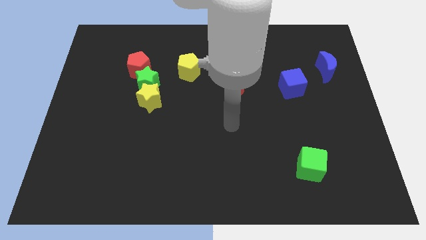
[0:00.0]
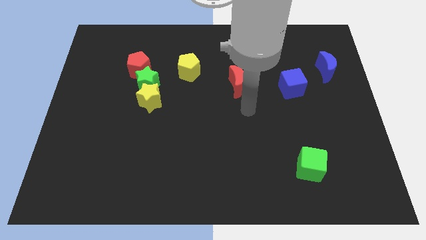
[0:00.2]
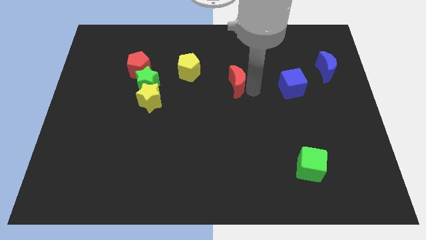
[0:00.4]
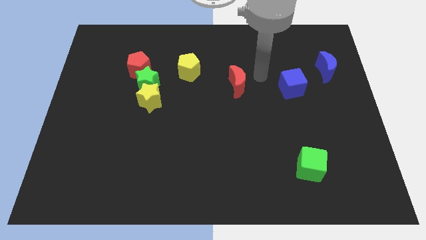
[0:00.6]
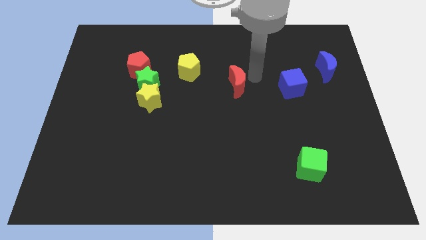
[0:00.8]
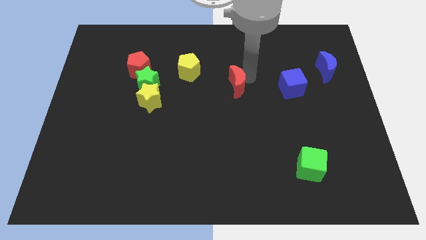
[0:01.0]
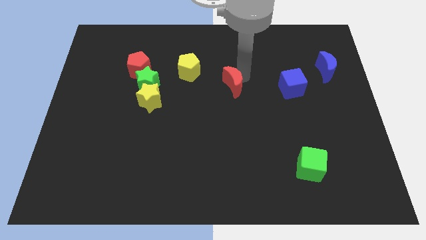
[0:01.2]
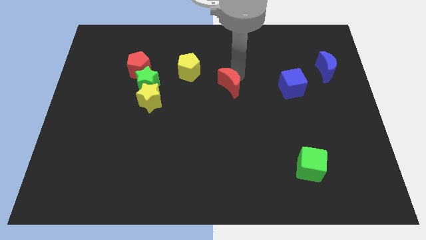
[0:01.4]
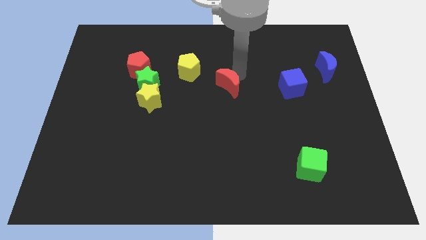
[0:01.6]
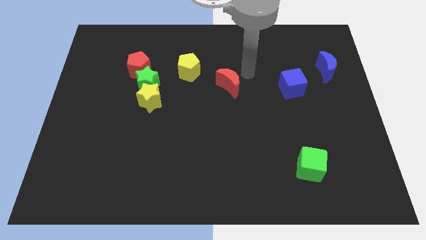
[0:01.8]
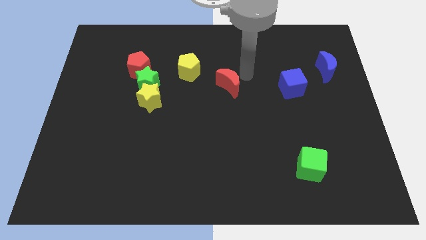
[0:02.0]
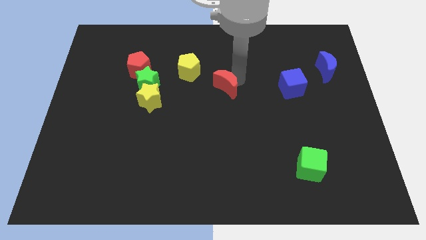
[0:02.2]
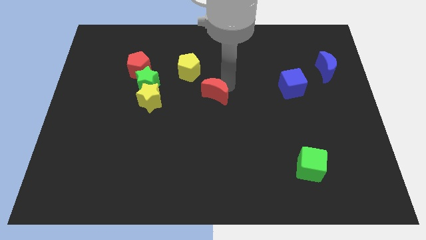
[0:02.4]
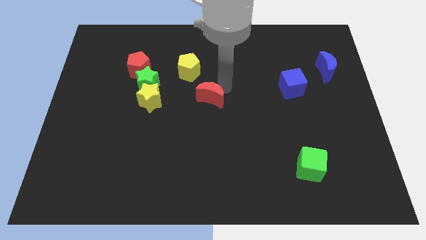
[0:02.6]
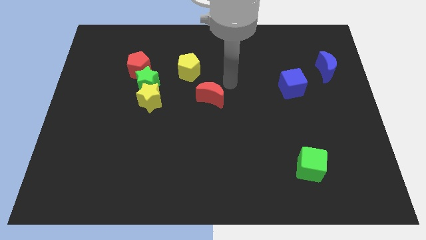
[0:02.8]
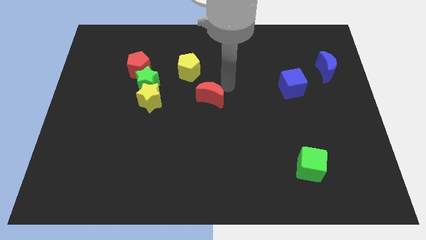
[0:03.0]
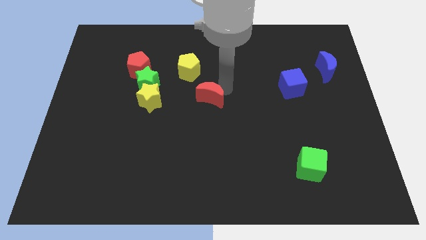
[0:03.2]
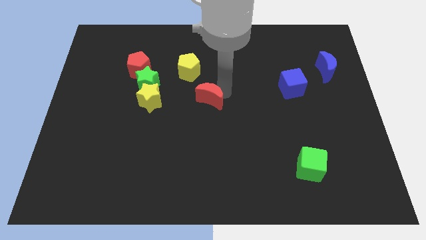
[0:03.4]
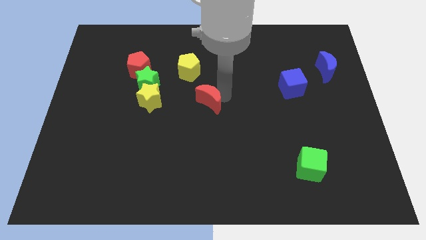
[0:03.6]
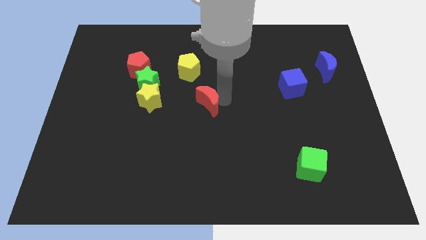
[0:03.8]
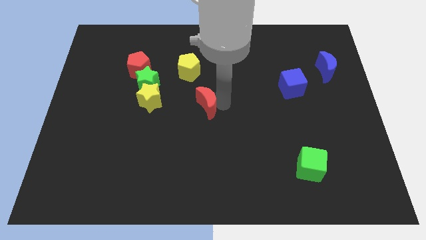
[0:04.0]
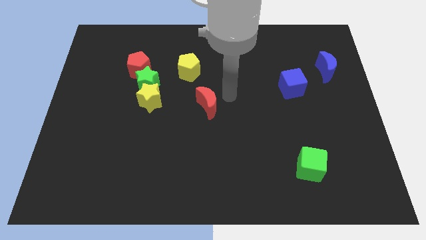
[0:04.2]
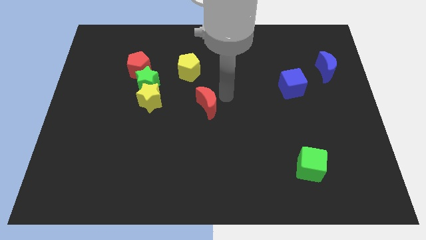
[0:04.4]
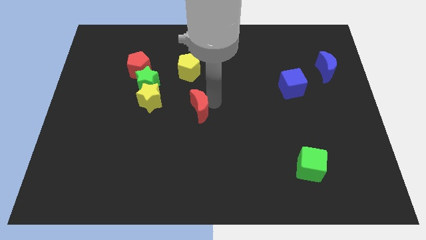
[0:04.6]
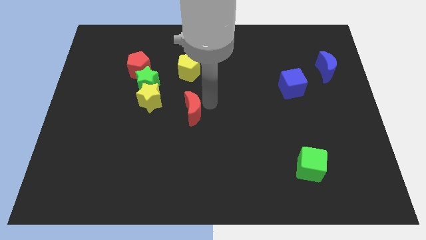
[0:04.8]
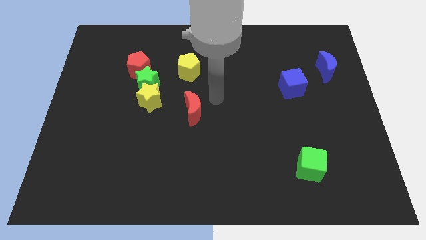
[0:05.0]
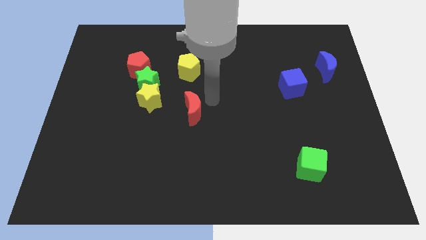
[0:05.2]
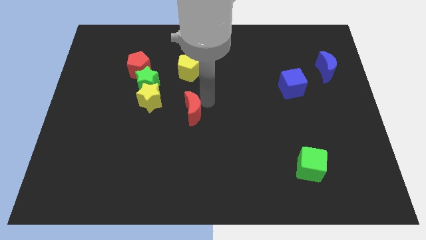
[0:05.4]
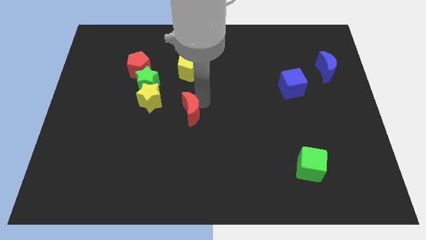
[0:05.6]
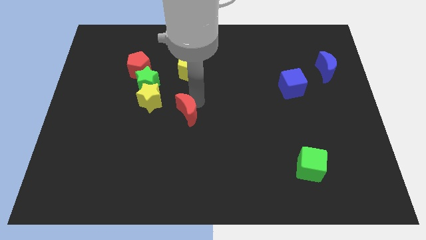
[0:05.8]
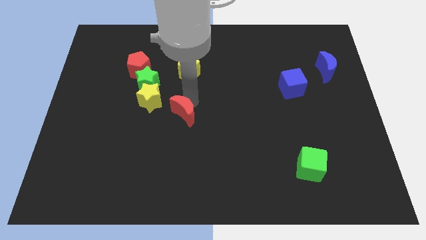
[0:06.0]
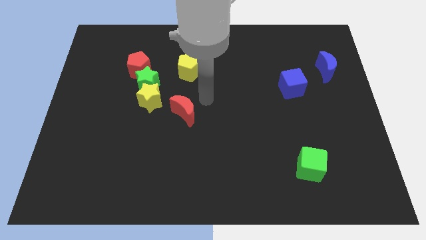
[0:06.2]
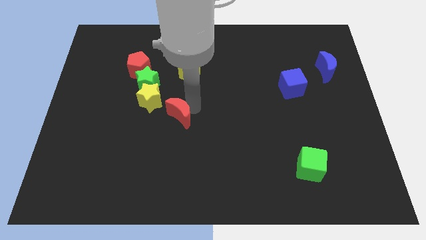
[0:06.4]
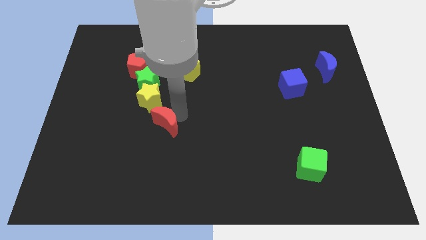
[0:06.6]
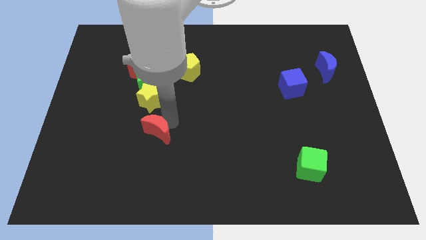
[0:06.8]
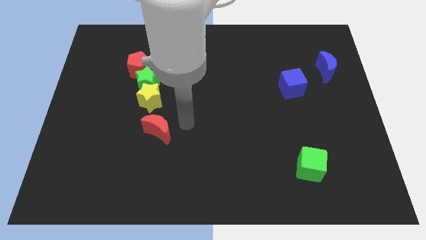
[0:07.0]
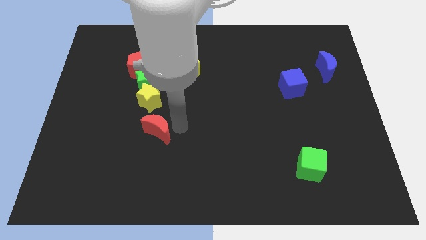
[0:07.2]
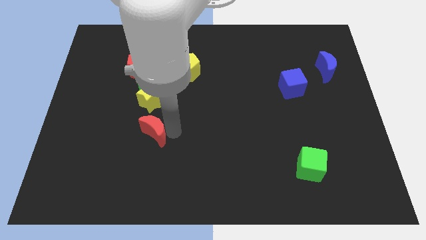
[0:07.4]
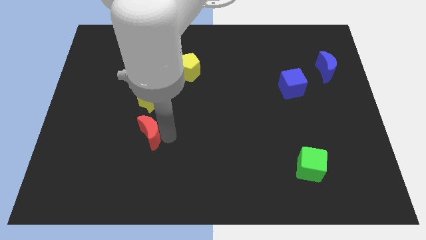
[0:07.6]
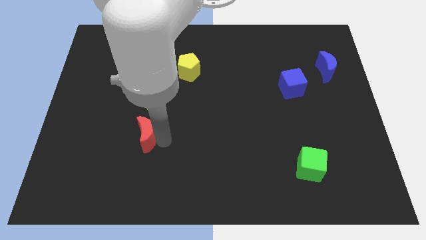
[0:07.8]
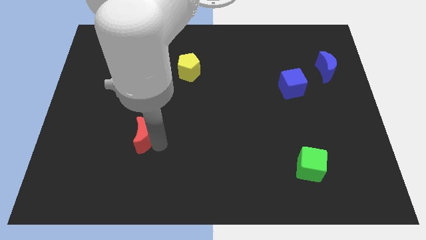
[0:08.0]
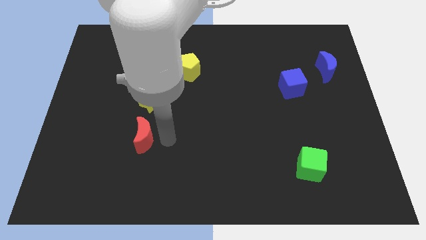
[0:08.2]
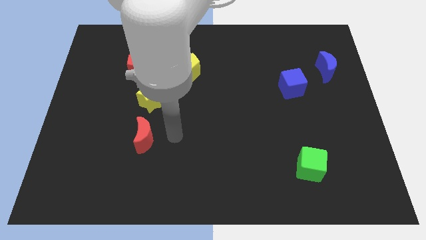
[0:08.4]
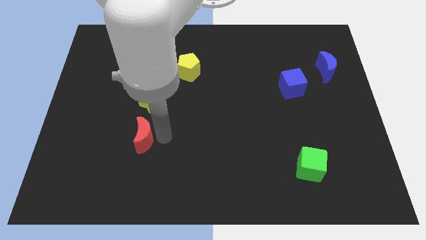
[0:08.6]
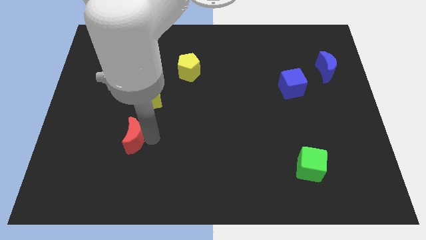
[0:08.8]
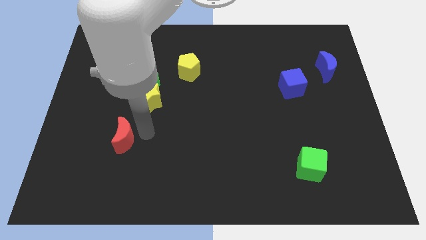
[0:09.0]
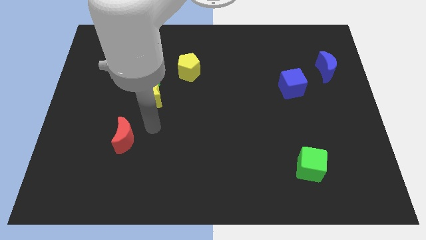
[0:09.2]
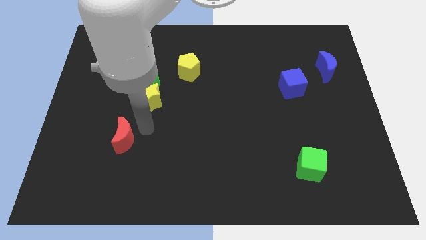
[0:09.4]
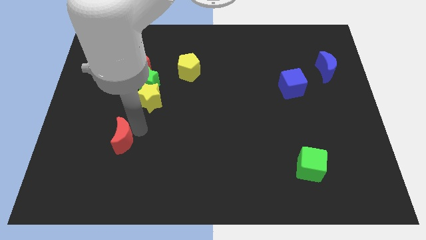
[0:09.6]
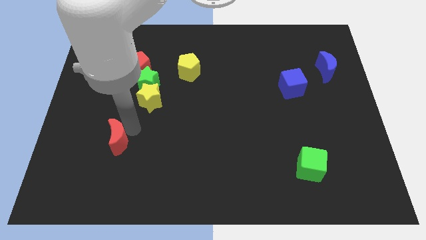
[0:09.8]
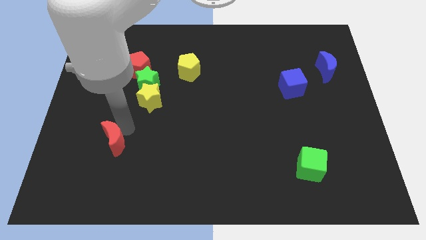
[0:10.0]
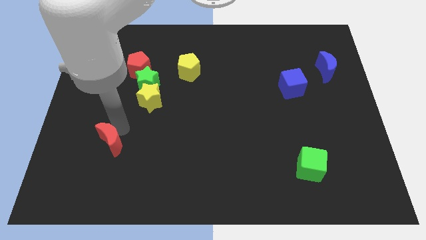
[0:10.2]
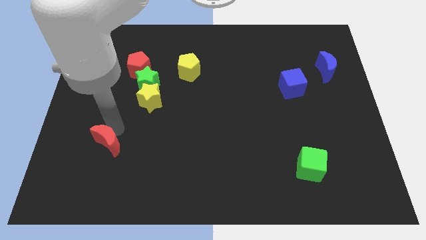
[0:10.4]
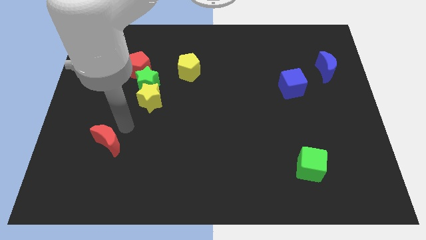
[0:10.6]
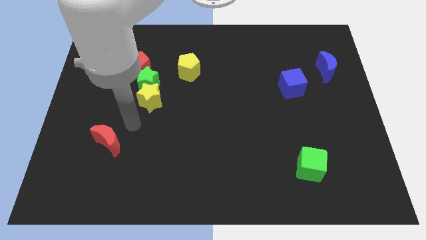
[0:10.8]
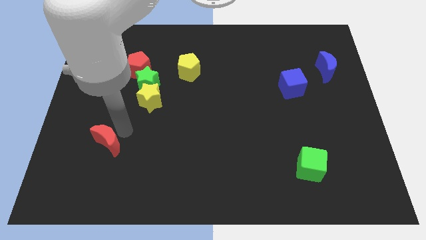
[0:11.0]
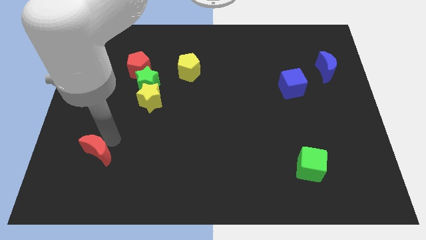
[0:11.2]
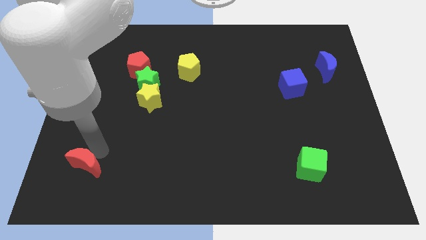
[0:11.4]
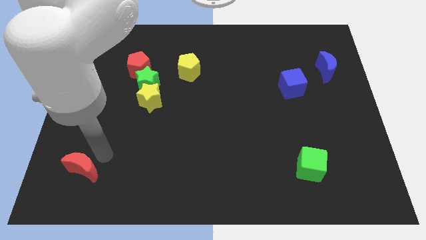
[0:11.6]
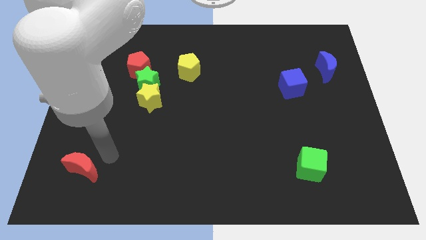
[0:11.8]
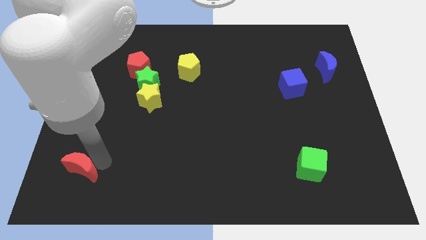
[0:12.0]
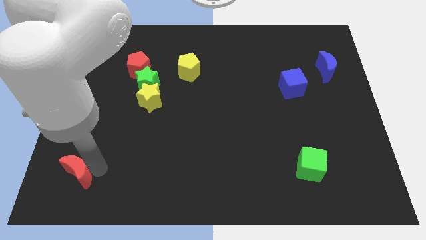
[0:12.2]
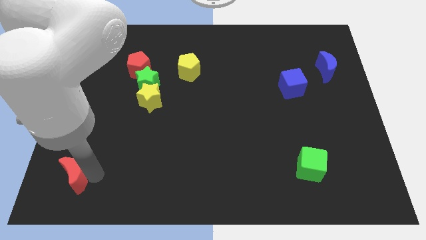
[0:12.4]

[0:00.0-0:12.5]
push the red moon to the bottom left
